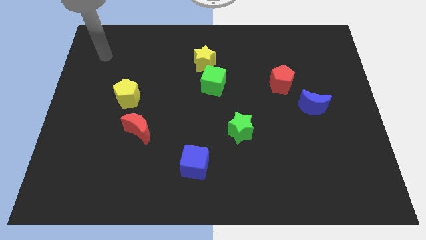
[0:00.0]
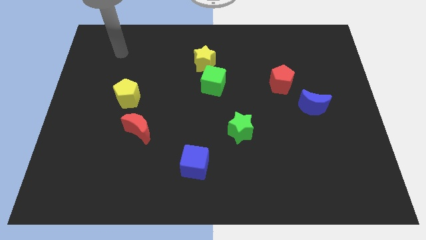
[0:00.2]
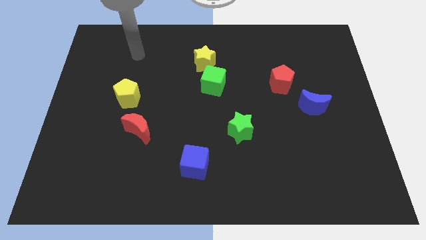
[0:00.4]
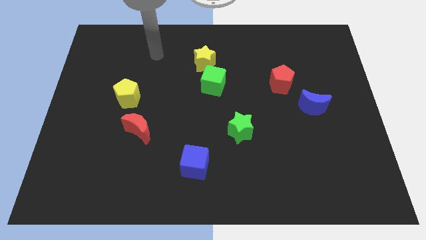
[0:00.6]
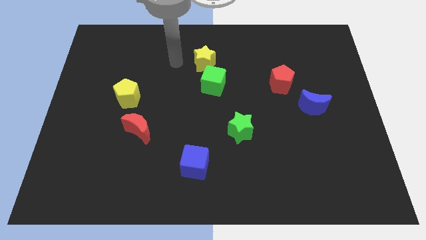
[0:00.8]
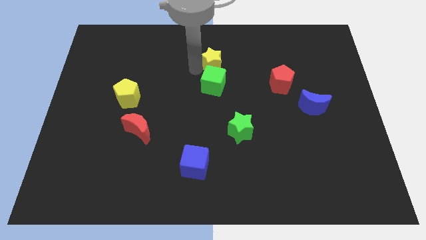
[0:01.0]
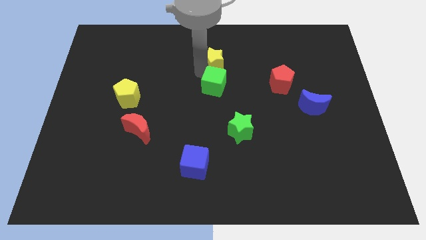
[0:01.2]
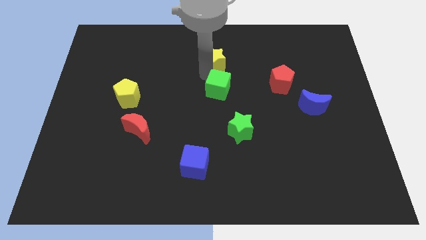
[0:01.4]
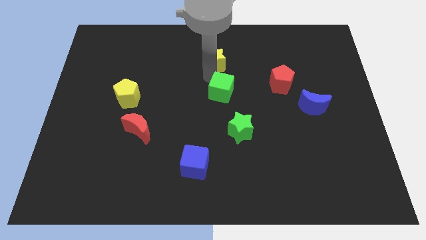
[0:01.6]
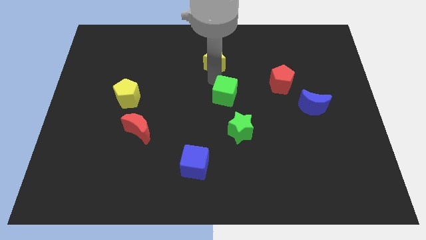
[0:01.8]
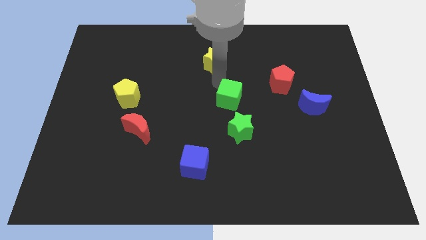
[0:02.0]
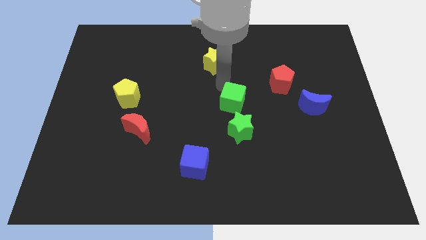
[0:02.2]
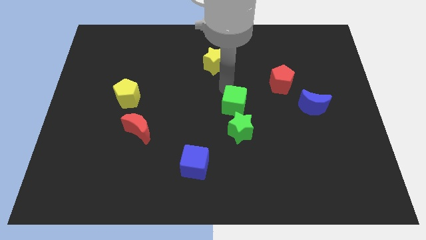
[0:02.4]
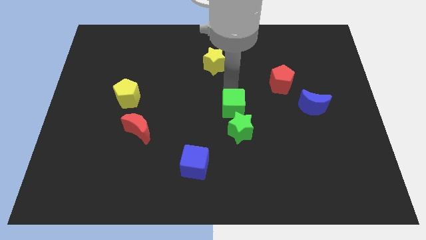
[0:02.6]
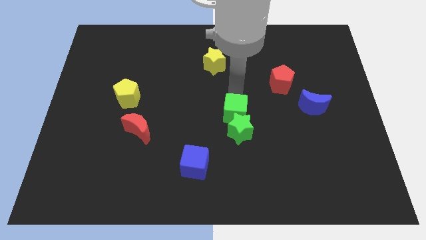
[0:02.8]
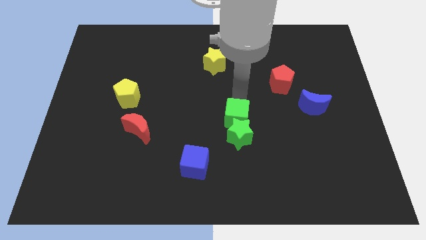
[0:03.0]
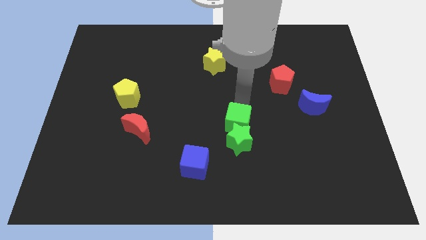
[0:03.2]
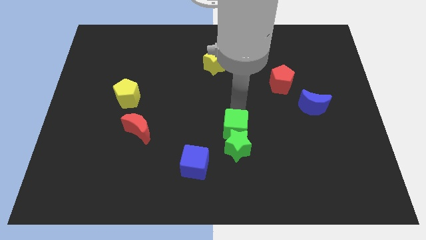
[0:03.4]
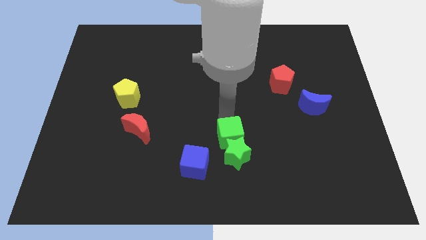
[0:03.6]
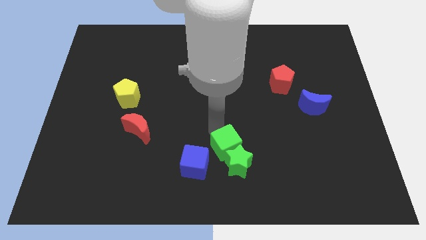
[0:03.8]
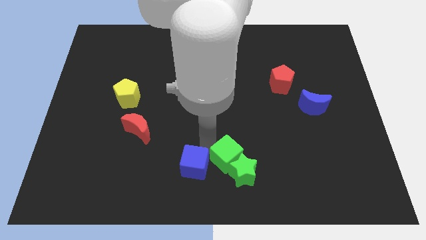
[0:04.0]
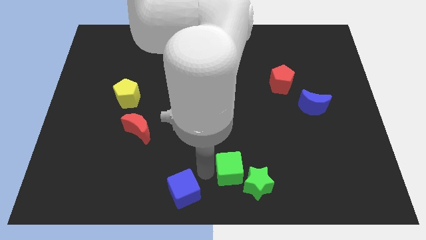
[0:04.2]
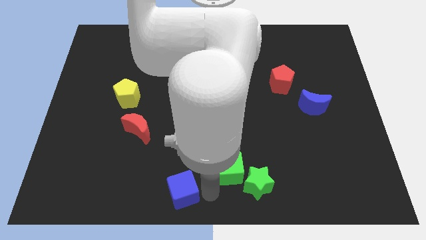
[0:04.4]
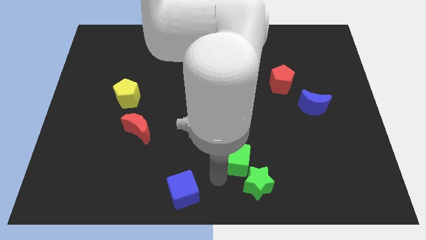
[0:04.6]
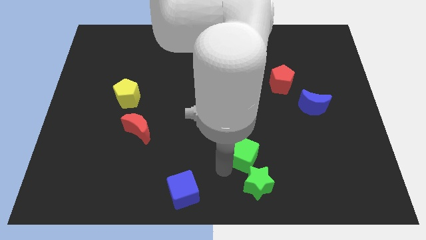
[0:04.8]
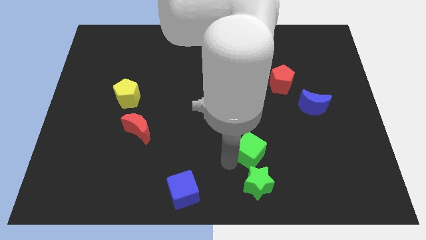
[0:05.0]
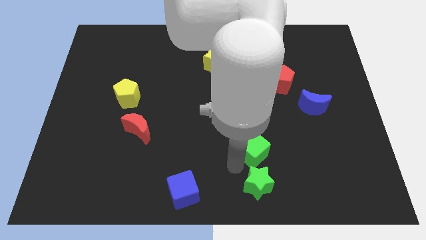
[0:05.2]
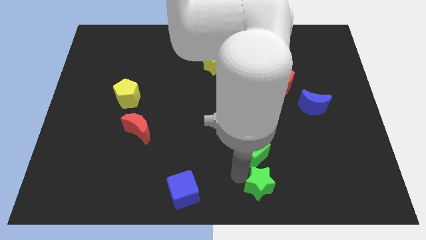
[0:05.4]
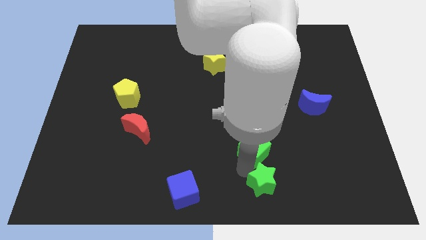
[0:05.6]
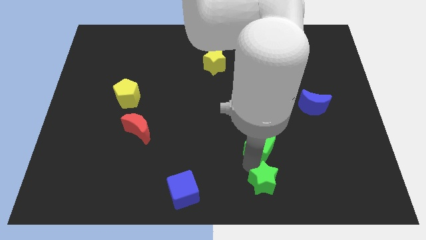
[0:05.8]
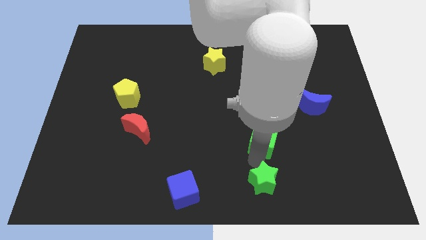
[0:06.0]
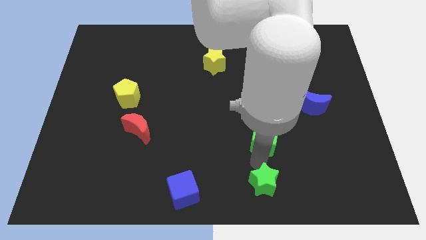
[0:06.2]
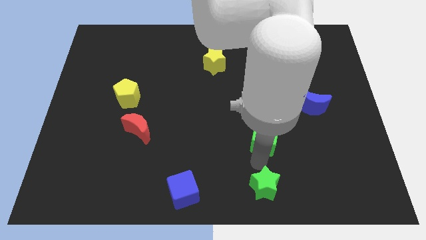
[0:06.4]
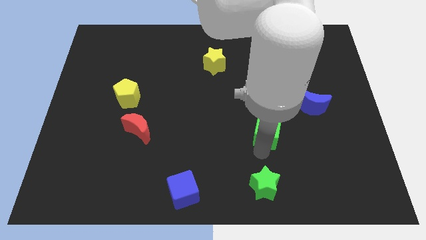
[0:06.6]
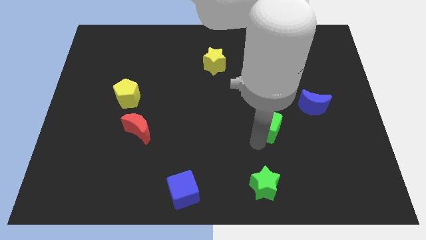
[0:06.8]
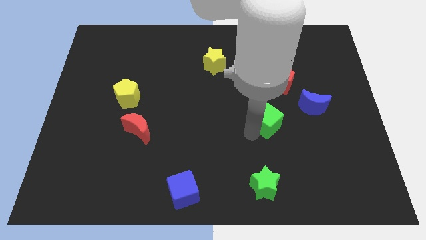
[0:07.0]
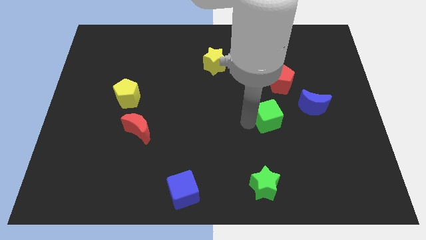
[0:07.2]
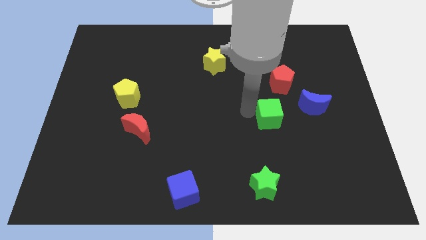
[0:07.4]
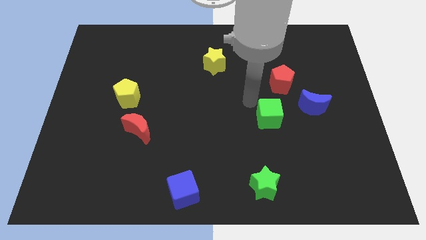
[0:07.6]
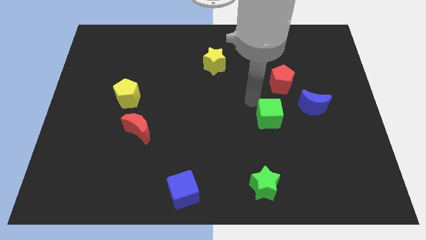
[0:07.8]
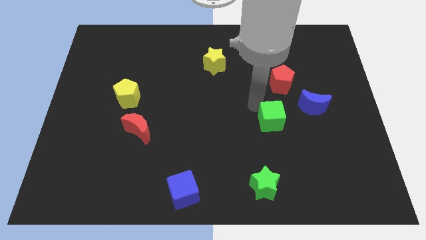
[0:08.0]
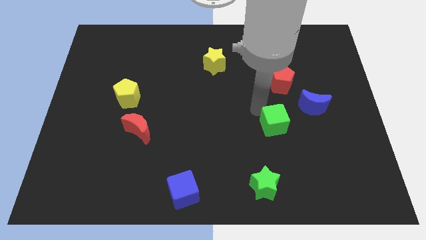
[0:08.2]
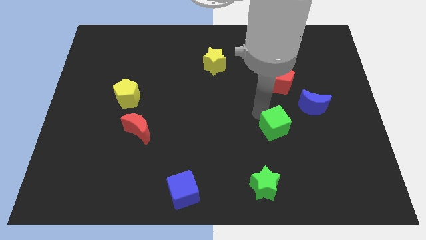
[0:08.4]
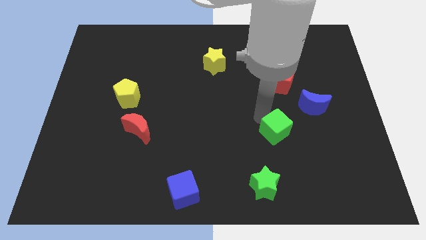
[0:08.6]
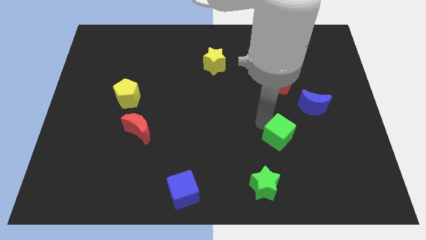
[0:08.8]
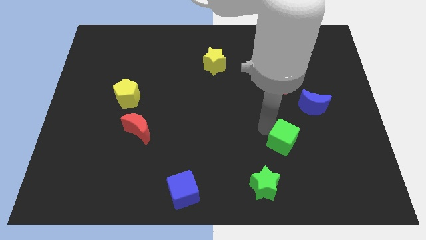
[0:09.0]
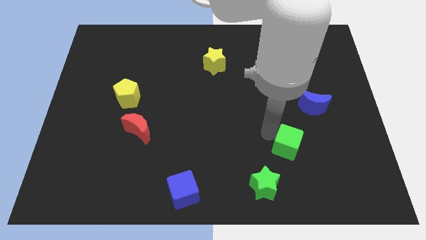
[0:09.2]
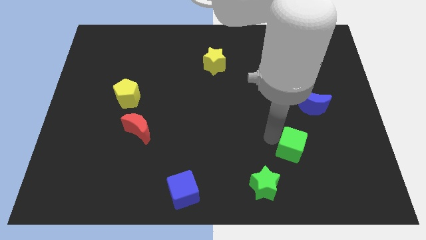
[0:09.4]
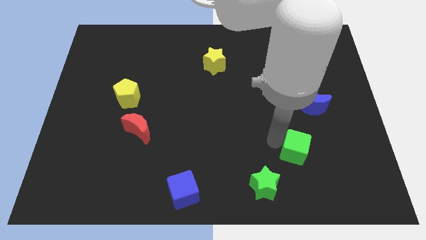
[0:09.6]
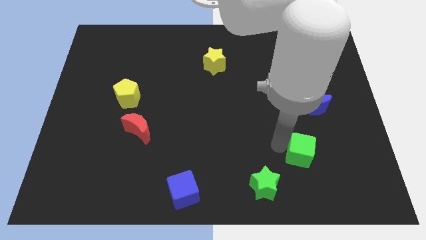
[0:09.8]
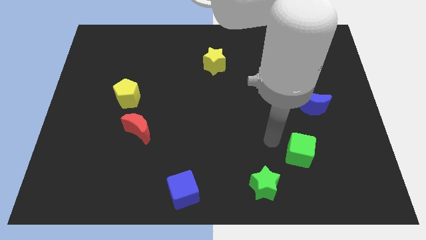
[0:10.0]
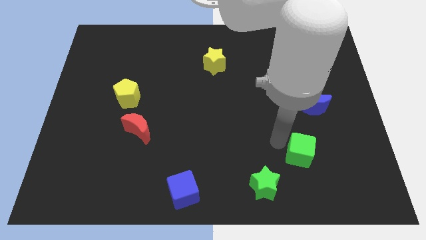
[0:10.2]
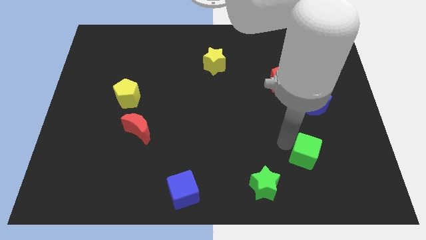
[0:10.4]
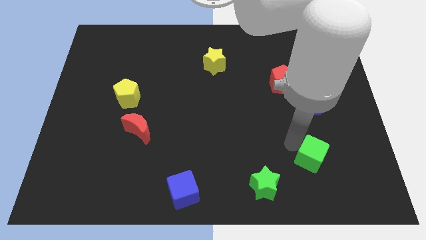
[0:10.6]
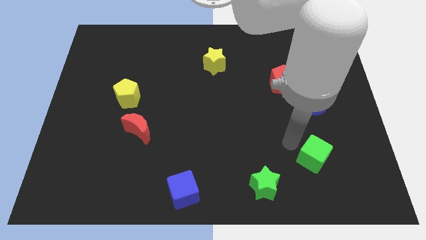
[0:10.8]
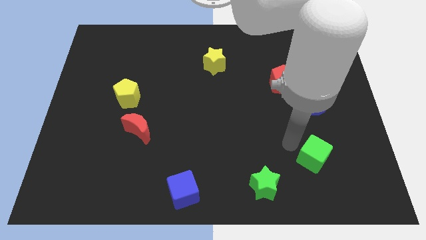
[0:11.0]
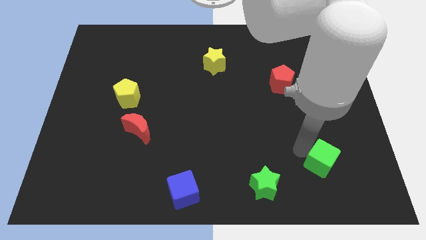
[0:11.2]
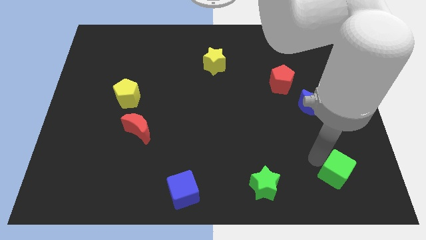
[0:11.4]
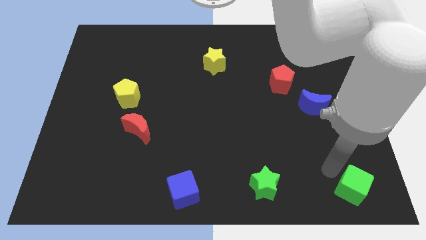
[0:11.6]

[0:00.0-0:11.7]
move the green cube to the bottom right
